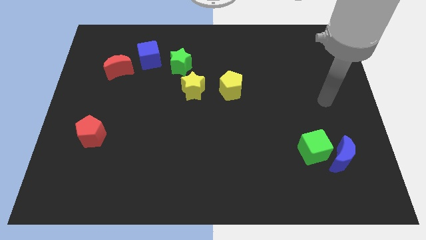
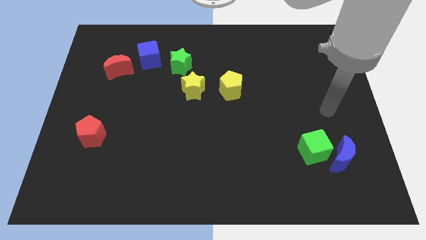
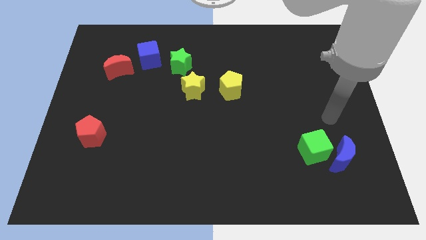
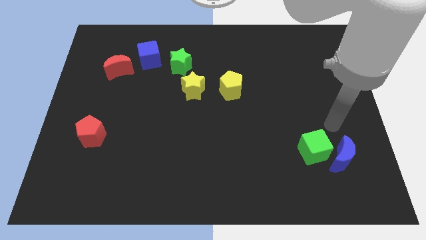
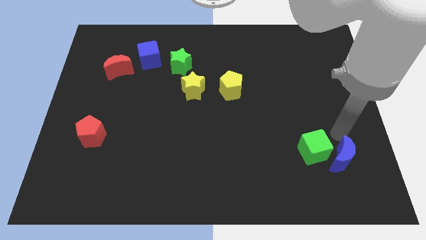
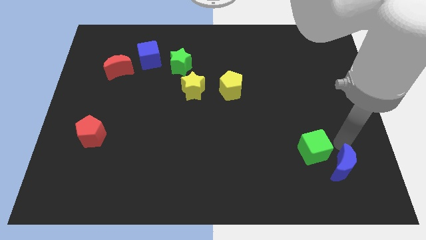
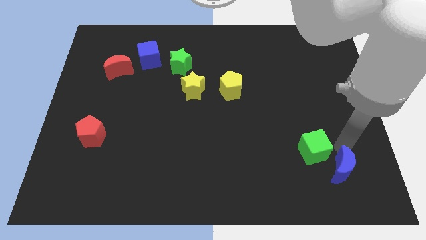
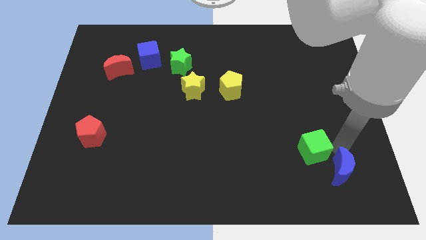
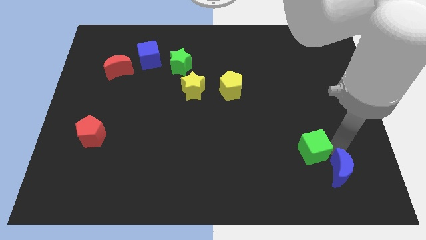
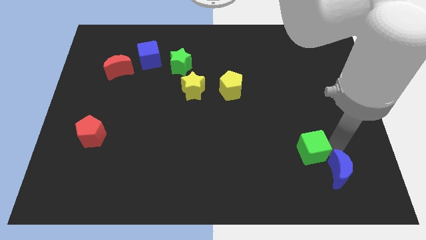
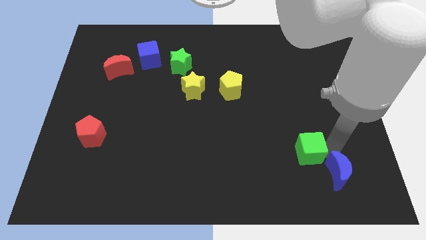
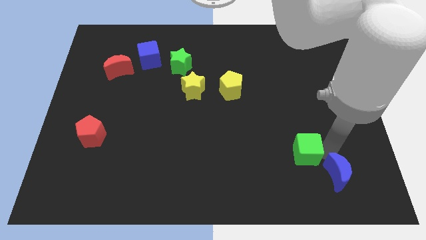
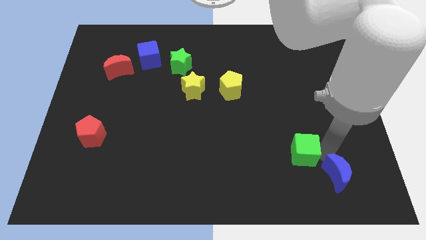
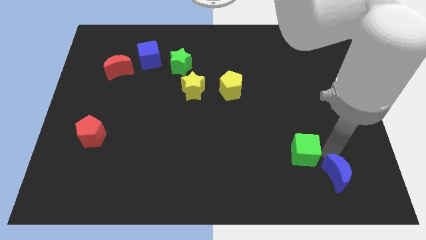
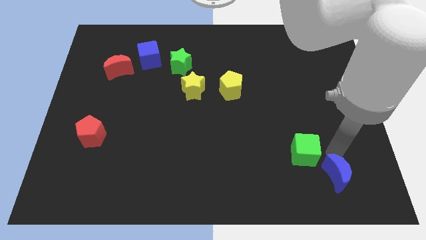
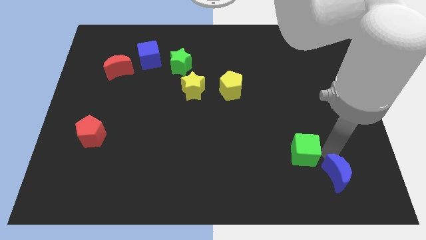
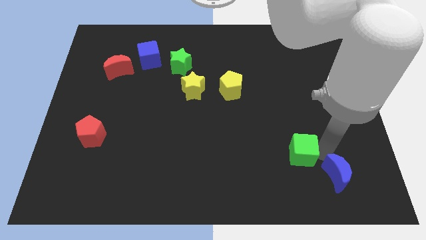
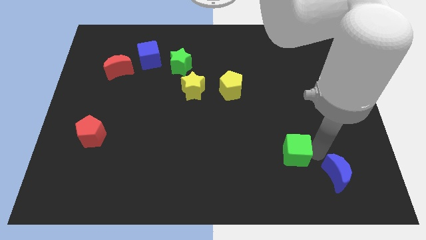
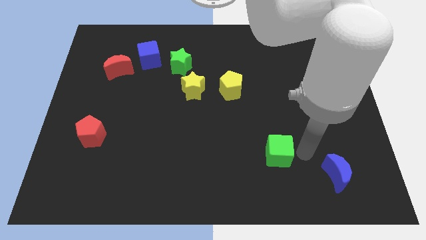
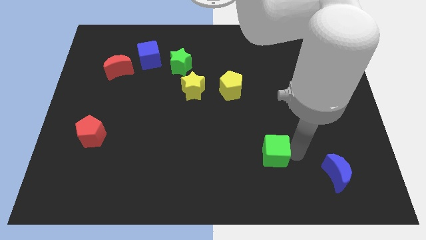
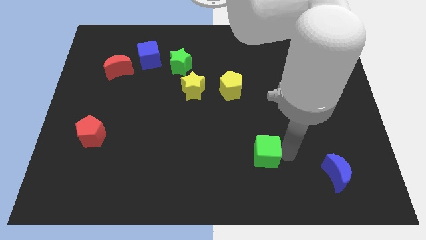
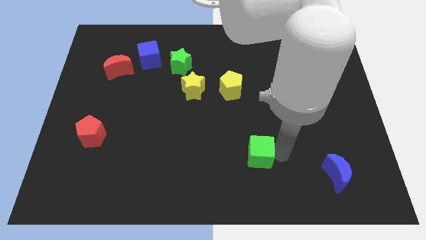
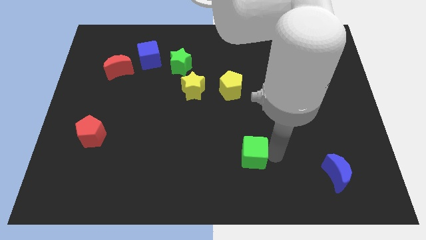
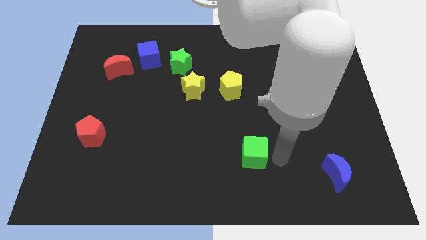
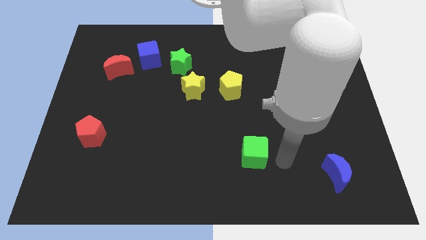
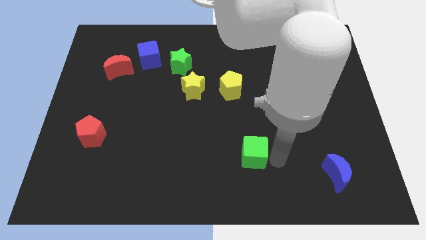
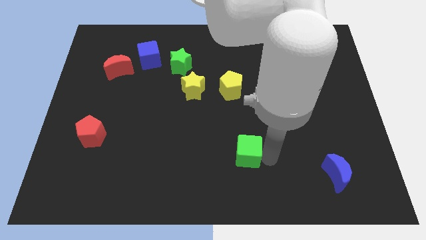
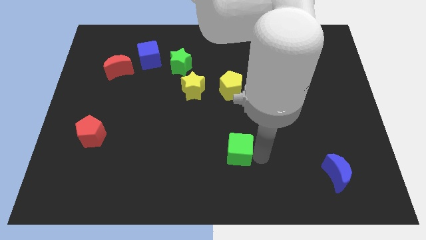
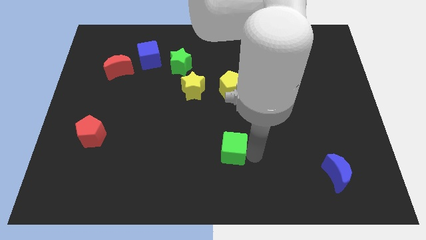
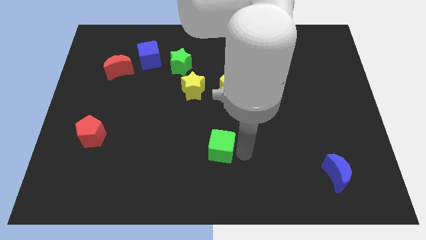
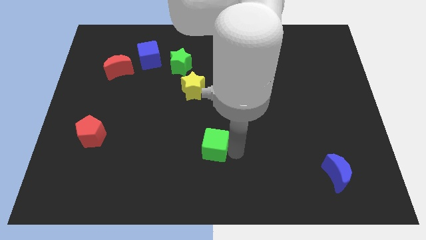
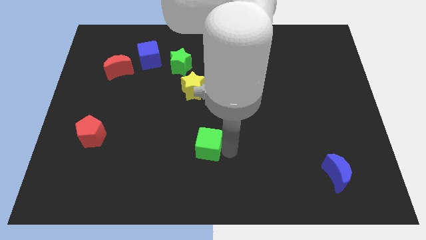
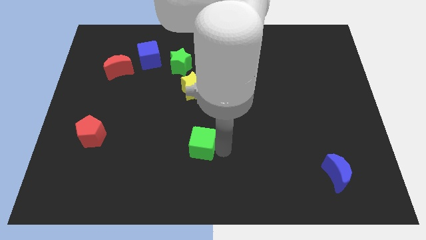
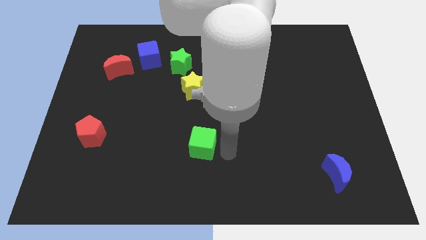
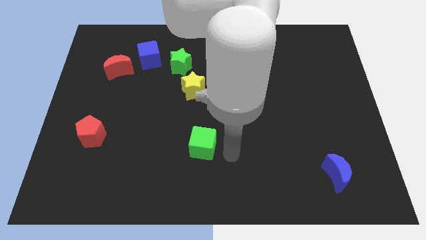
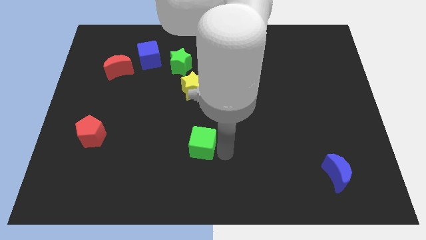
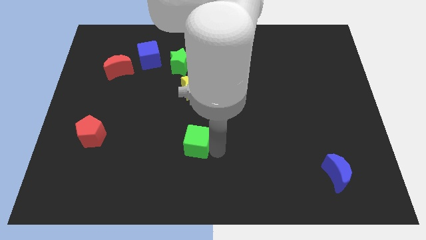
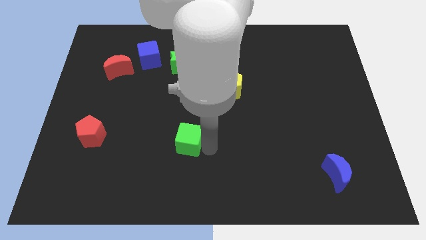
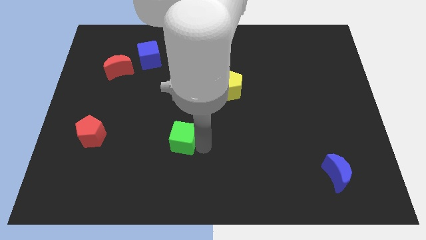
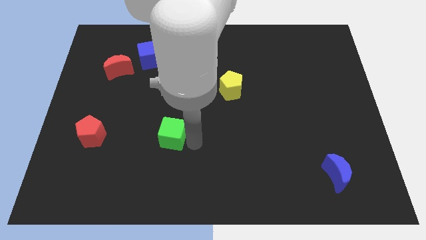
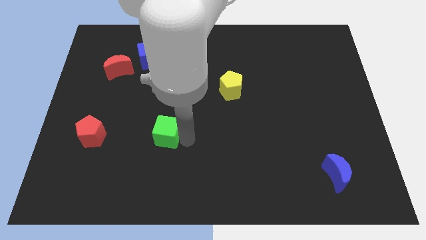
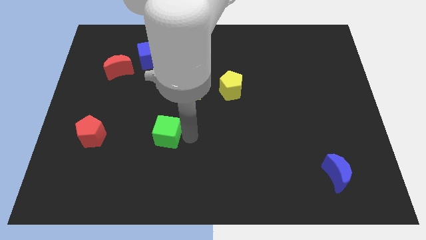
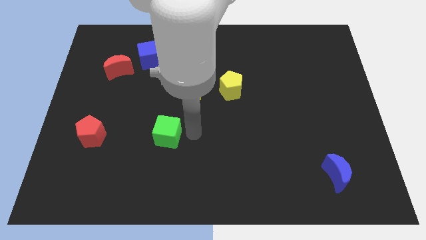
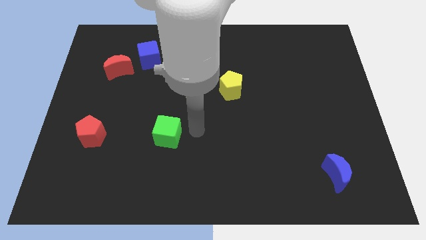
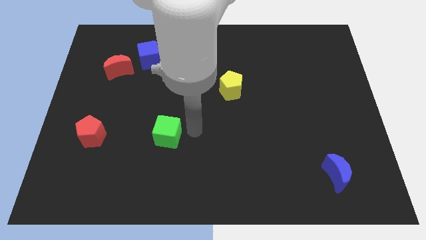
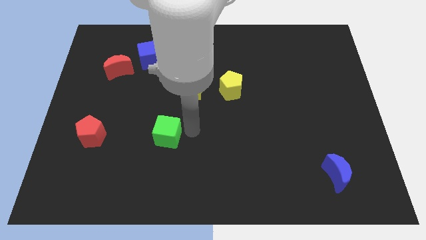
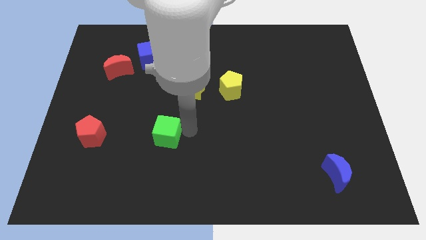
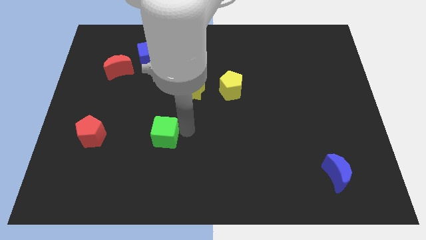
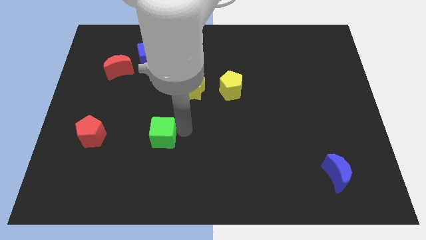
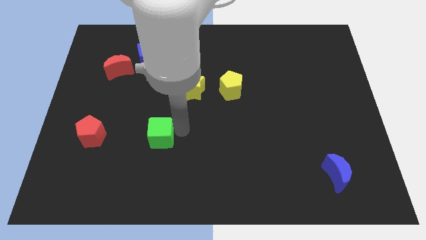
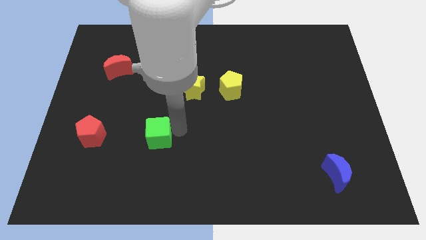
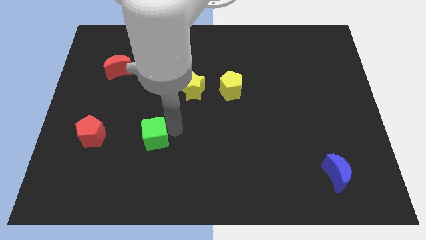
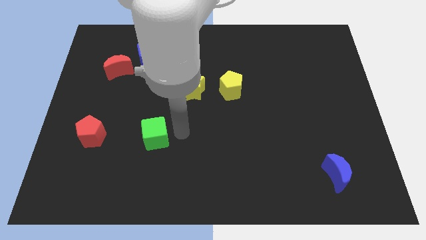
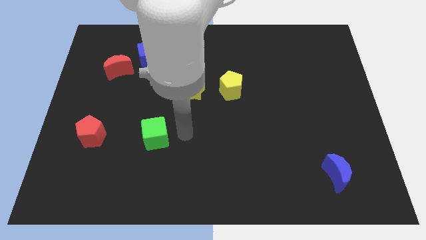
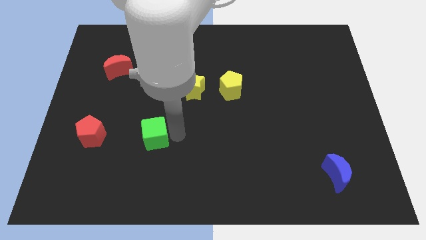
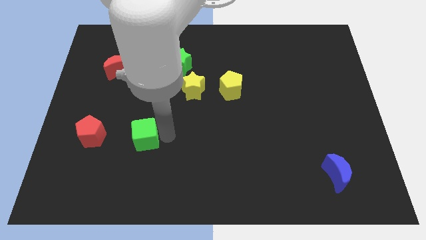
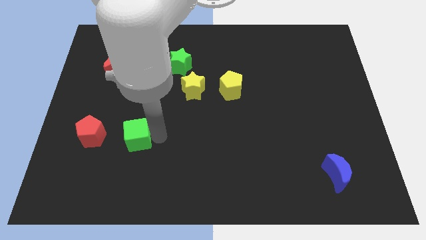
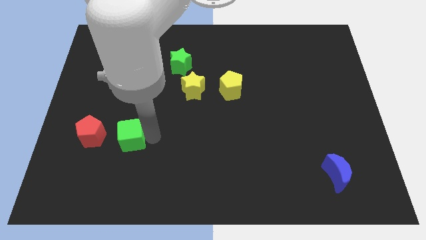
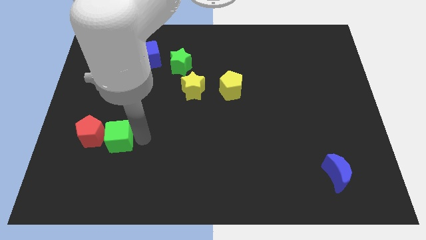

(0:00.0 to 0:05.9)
push the green cube towards the red pentagon

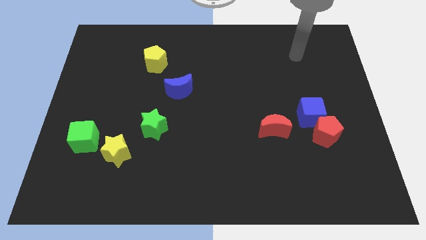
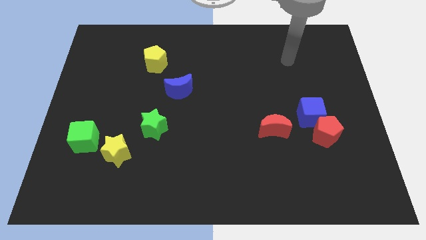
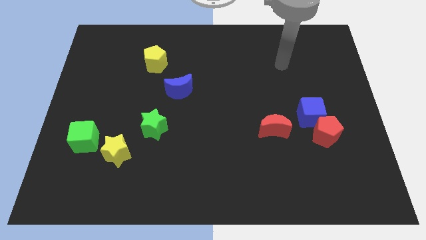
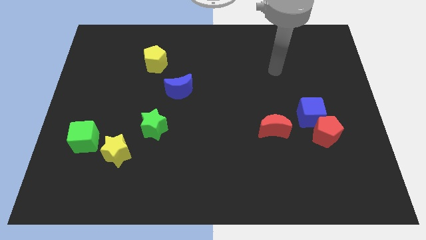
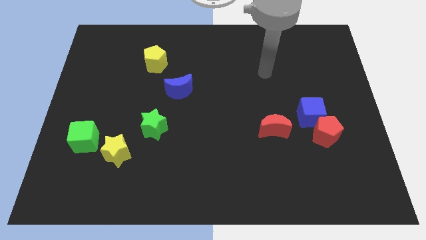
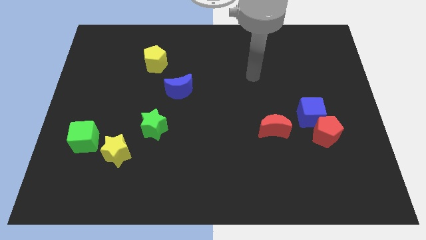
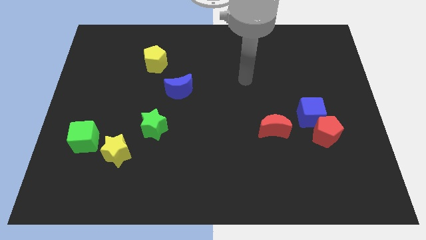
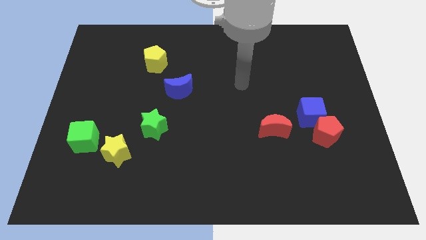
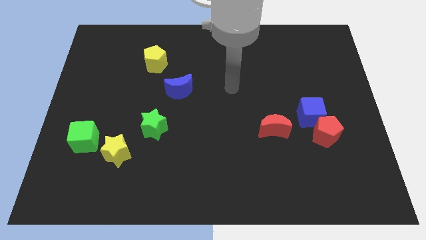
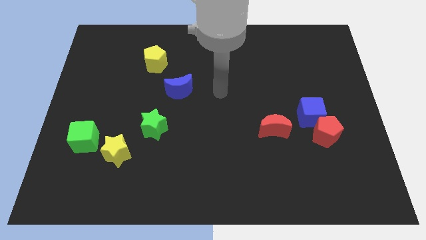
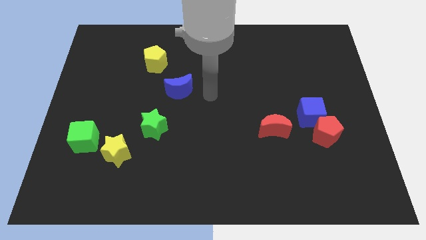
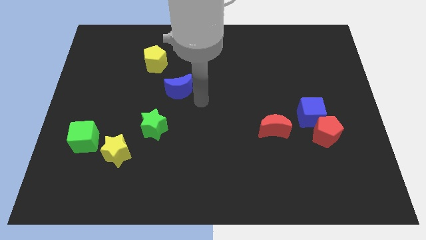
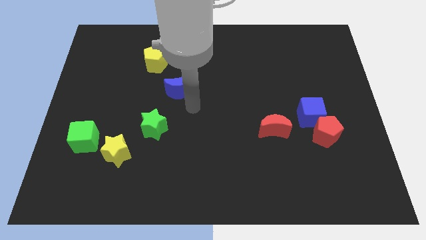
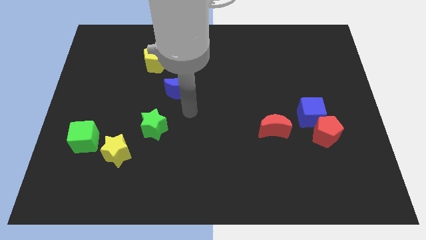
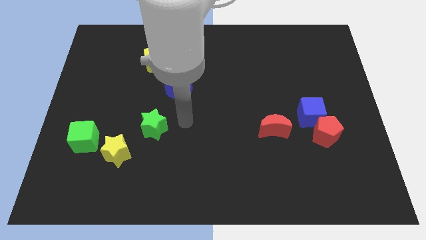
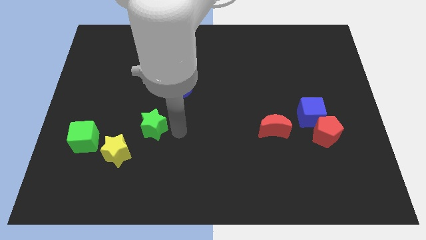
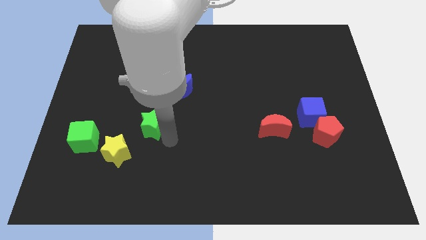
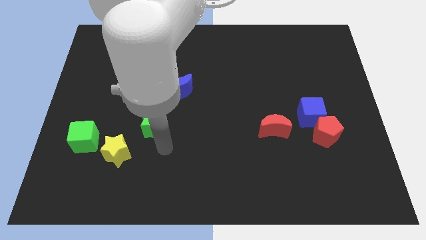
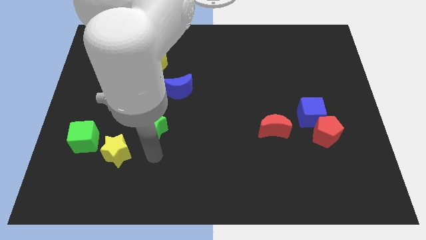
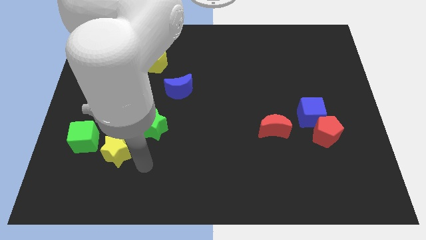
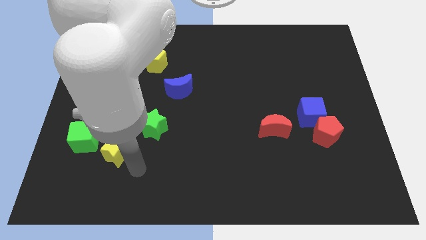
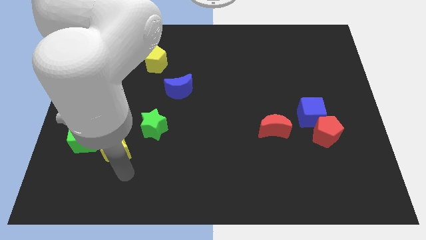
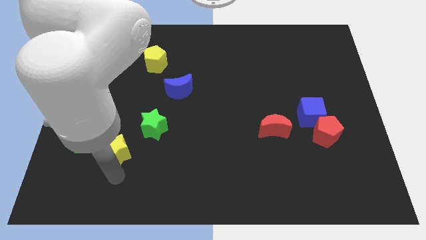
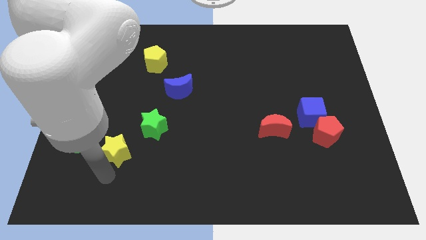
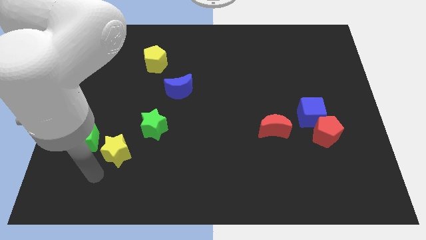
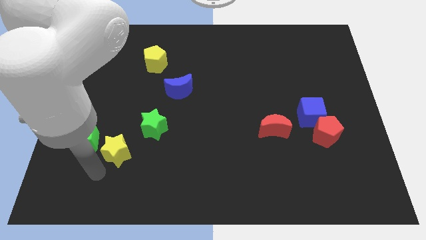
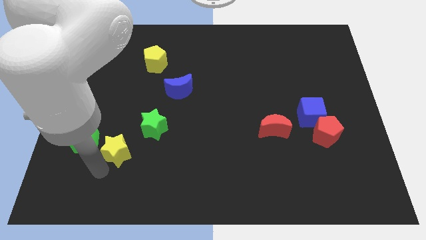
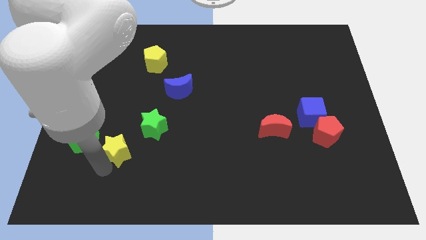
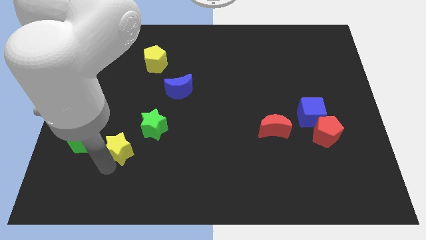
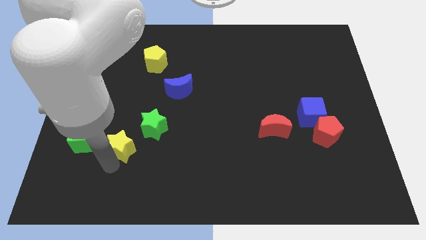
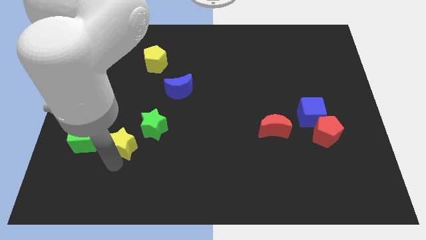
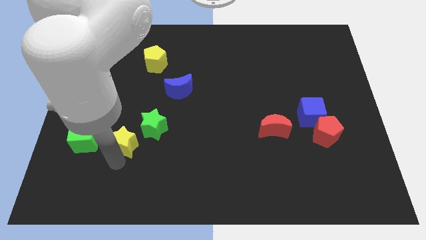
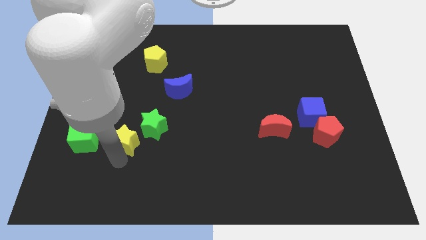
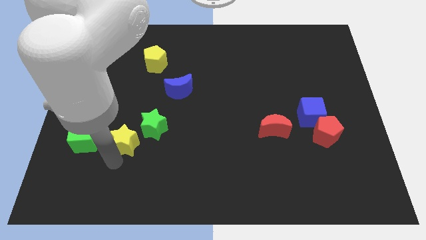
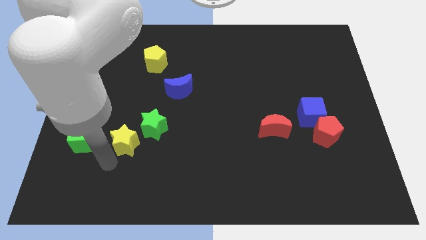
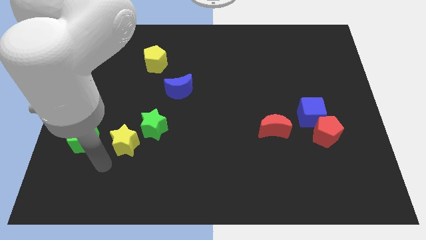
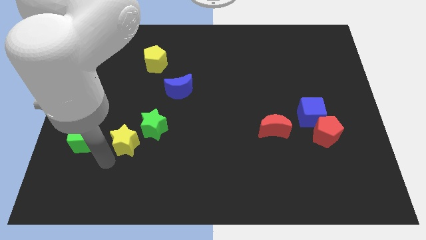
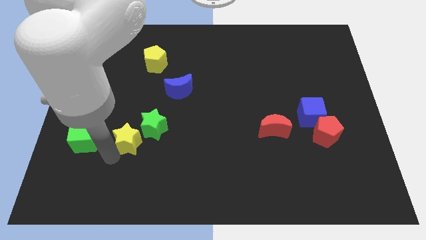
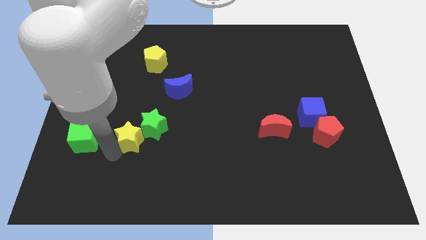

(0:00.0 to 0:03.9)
put the yellow star next to the green star
